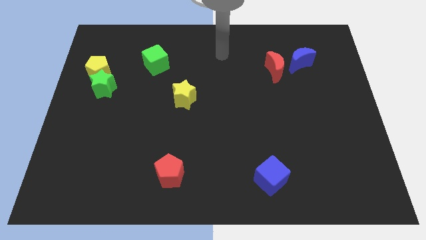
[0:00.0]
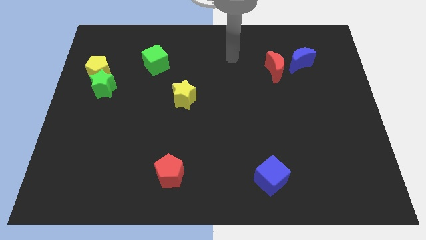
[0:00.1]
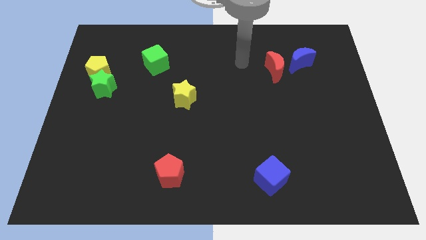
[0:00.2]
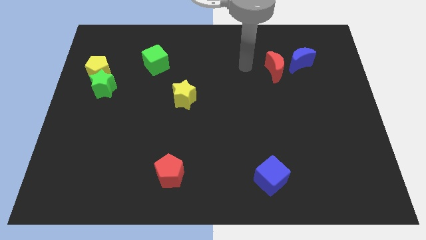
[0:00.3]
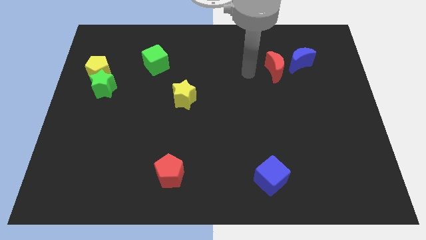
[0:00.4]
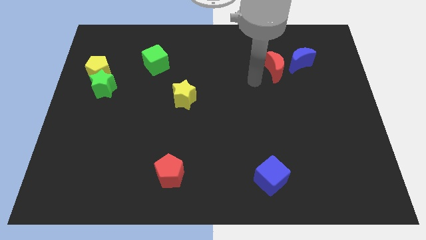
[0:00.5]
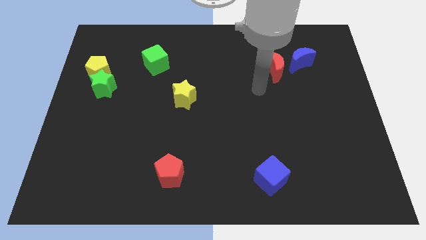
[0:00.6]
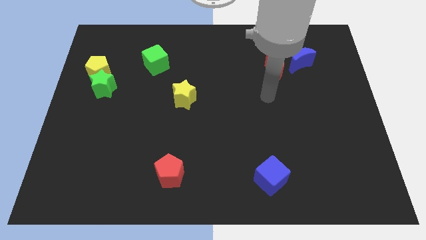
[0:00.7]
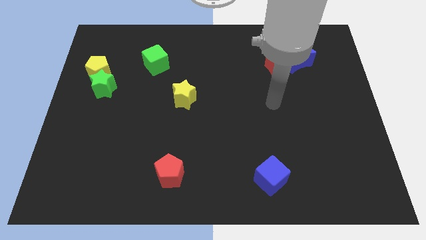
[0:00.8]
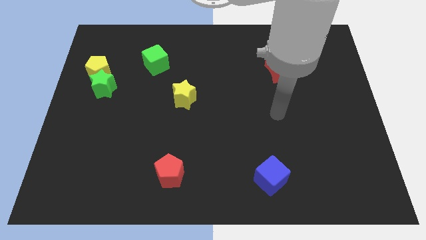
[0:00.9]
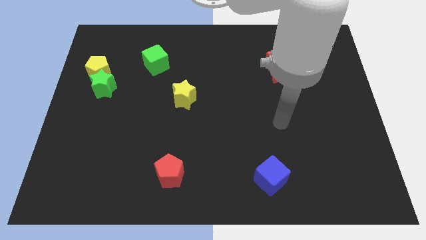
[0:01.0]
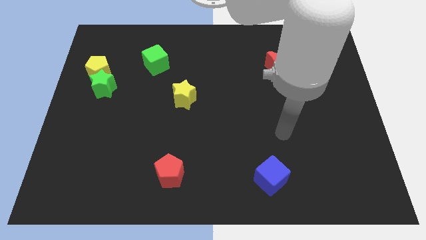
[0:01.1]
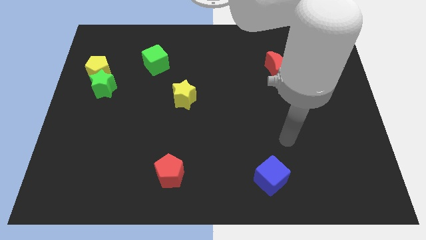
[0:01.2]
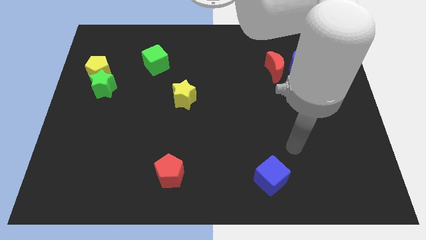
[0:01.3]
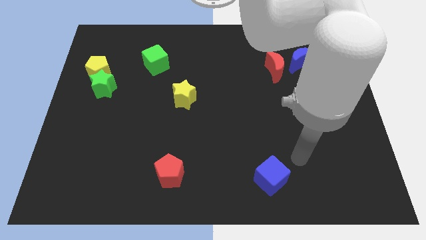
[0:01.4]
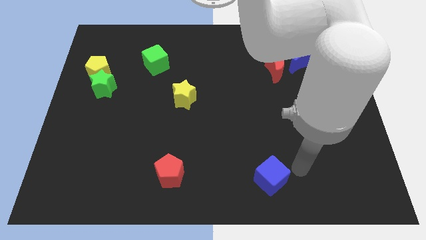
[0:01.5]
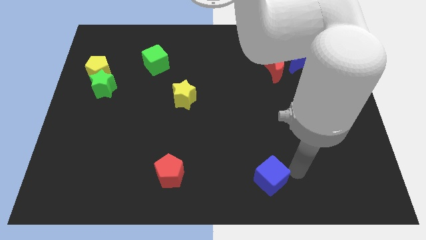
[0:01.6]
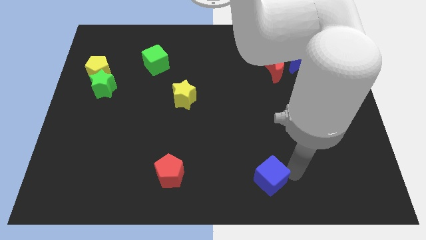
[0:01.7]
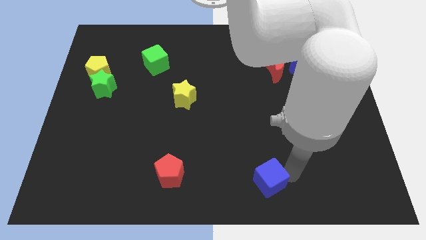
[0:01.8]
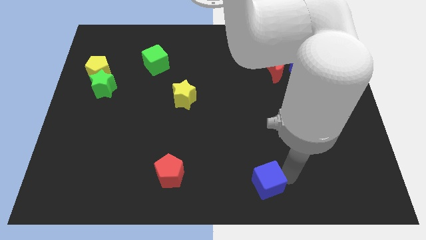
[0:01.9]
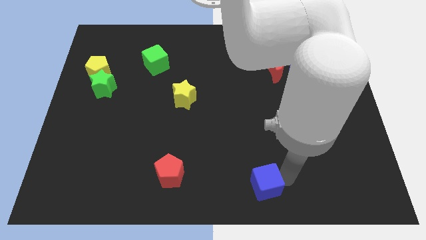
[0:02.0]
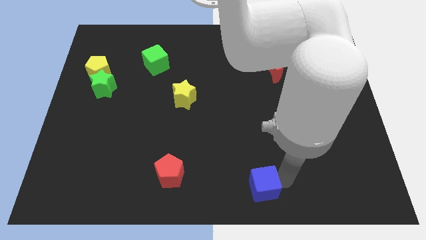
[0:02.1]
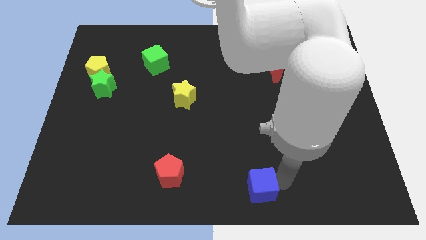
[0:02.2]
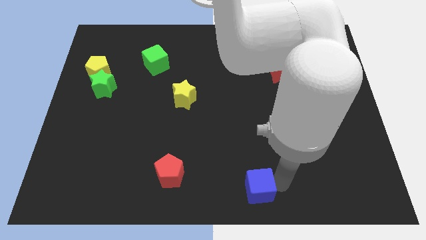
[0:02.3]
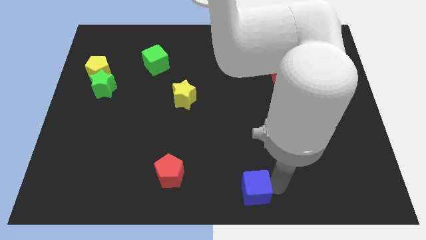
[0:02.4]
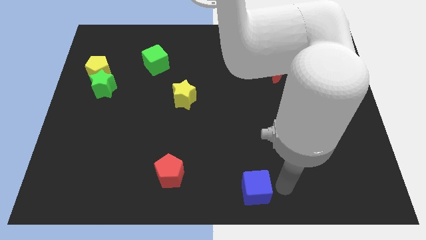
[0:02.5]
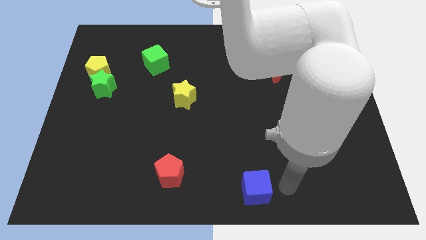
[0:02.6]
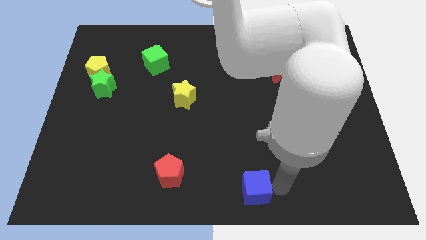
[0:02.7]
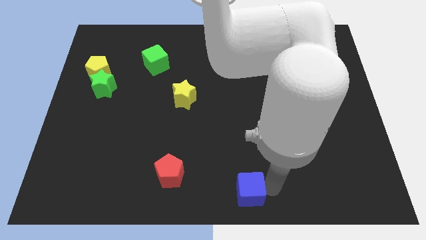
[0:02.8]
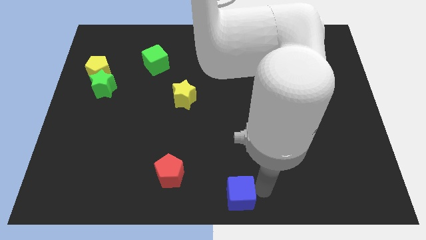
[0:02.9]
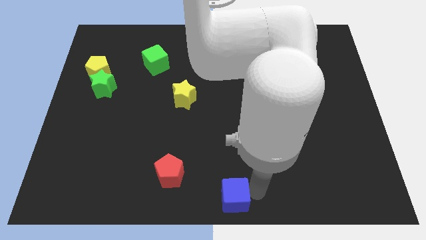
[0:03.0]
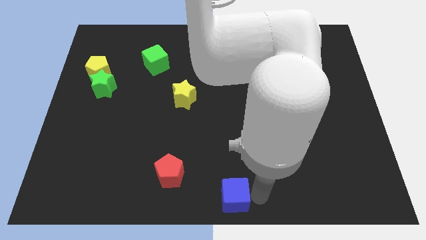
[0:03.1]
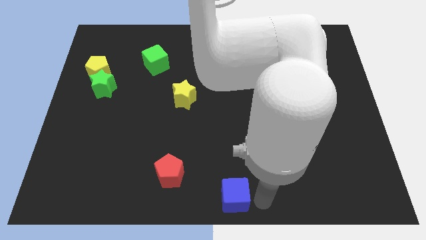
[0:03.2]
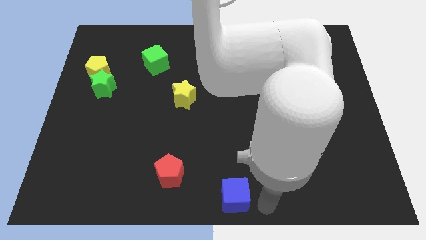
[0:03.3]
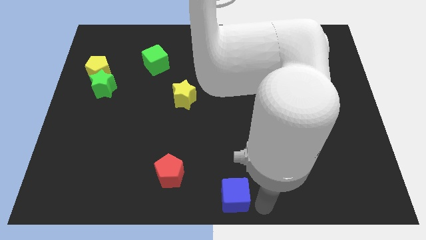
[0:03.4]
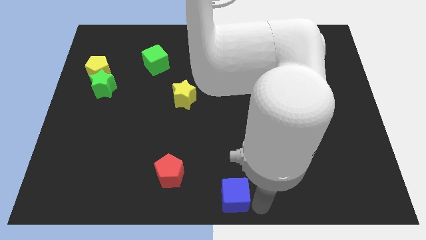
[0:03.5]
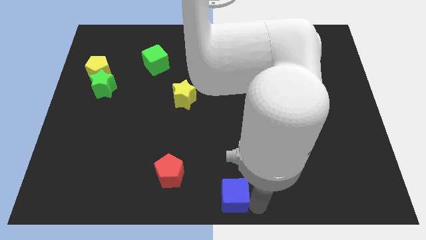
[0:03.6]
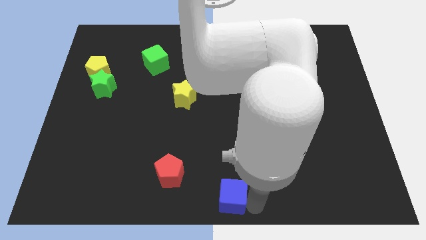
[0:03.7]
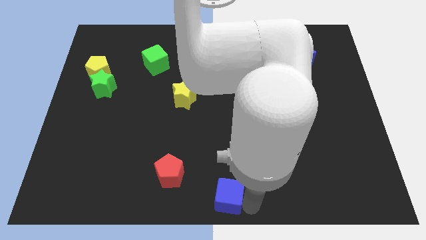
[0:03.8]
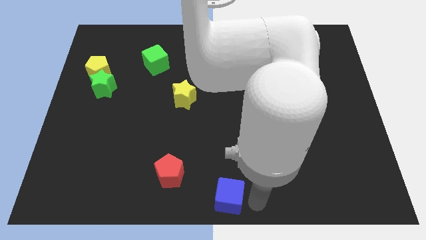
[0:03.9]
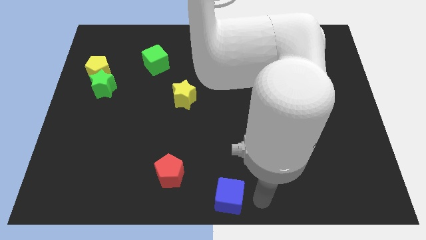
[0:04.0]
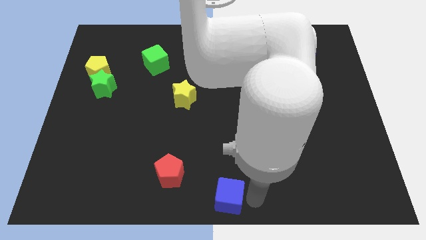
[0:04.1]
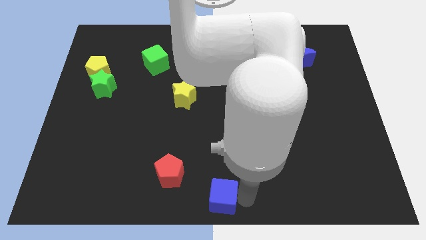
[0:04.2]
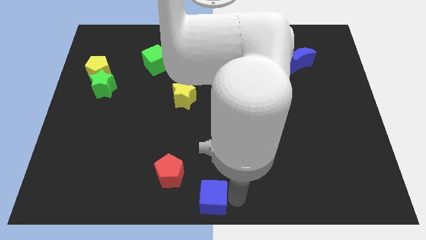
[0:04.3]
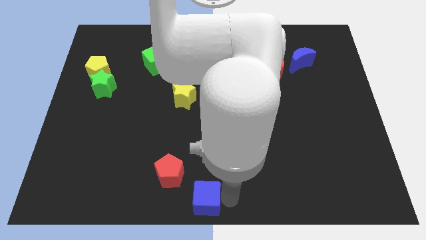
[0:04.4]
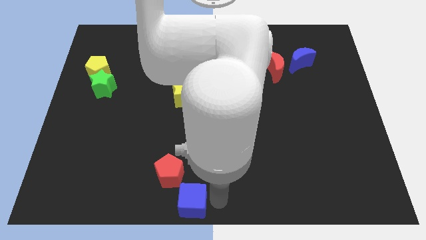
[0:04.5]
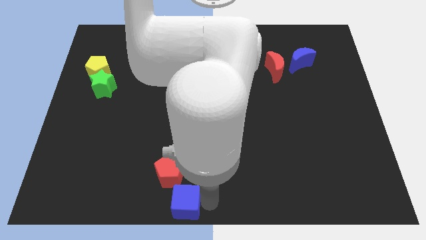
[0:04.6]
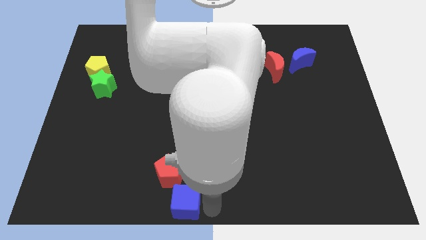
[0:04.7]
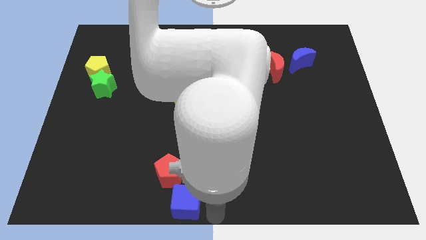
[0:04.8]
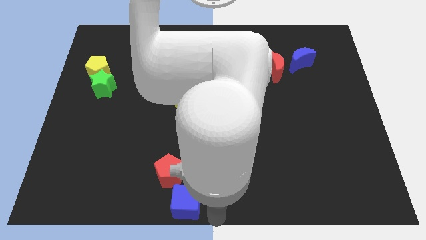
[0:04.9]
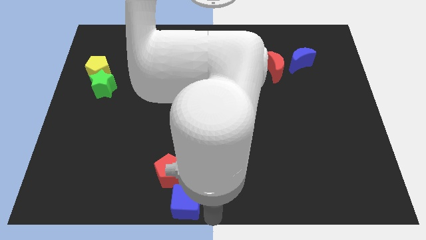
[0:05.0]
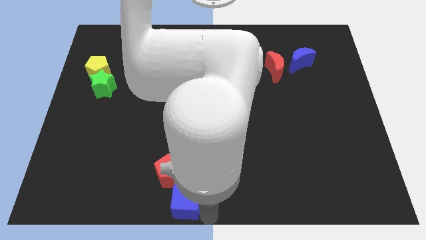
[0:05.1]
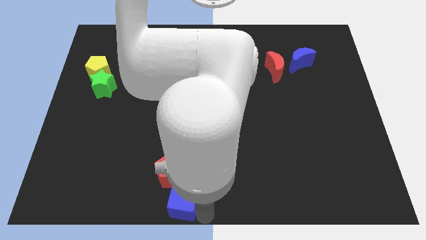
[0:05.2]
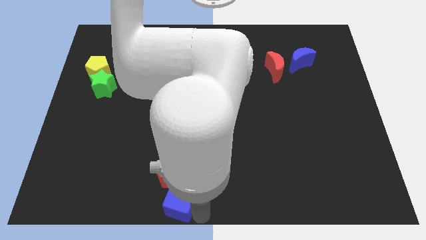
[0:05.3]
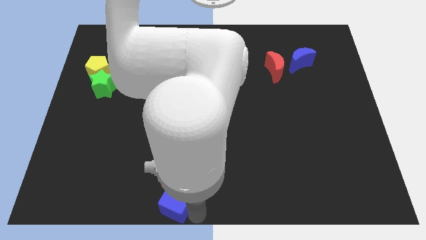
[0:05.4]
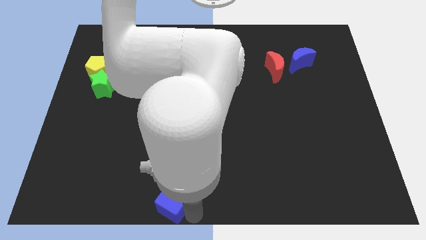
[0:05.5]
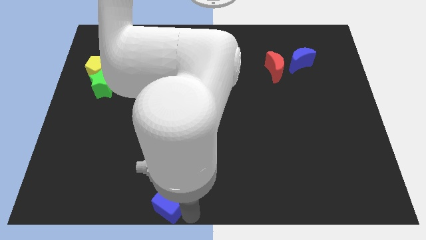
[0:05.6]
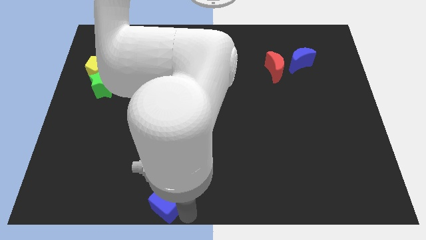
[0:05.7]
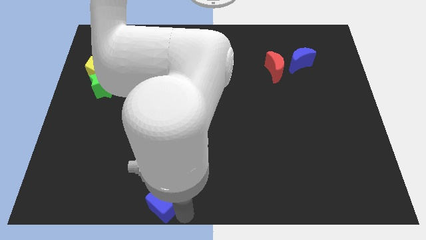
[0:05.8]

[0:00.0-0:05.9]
slide the blue cube left

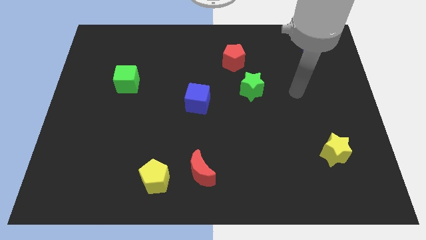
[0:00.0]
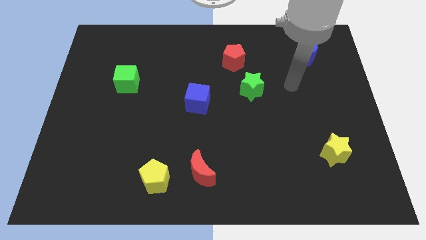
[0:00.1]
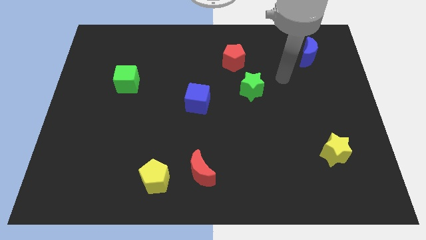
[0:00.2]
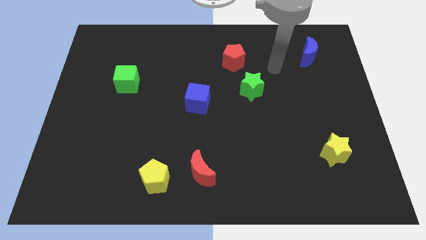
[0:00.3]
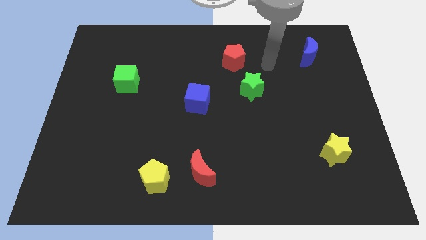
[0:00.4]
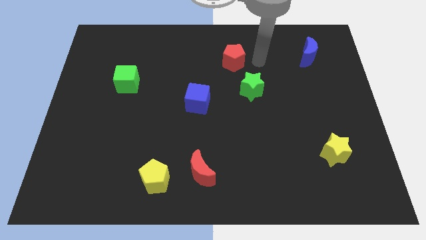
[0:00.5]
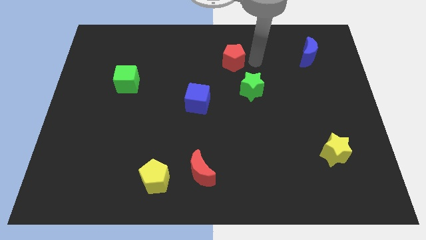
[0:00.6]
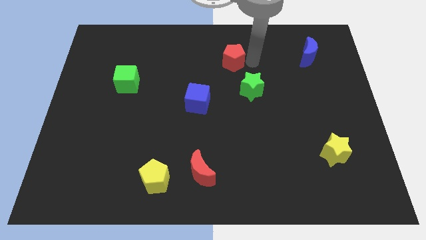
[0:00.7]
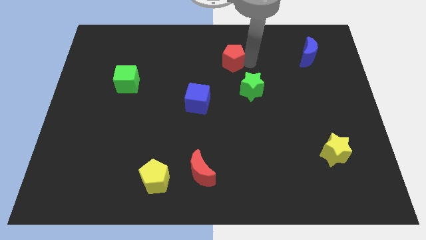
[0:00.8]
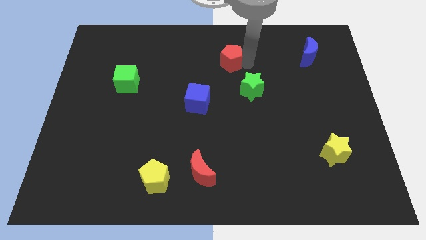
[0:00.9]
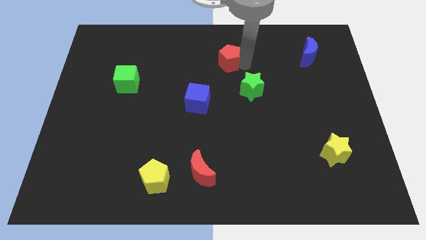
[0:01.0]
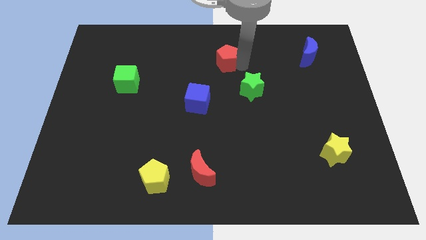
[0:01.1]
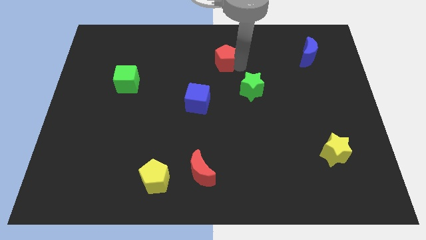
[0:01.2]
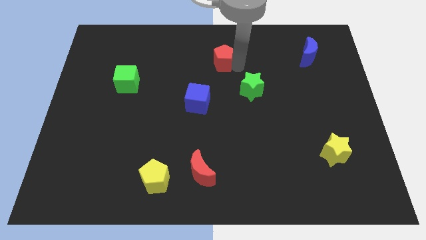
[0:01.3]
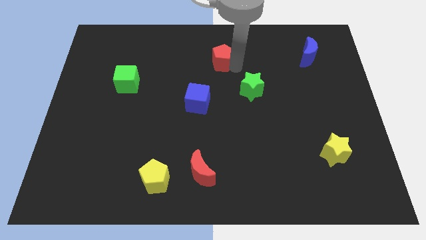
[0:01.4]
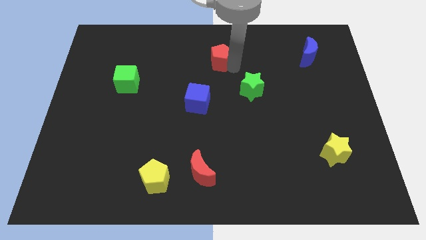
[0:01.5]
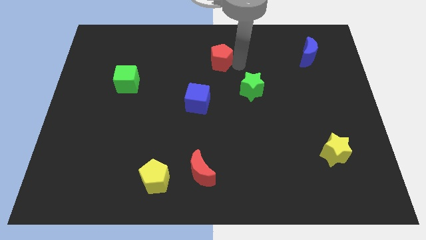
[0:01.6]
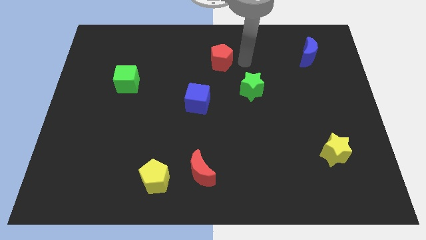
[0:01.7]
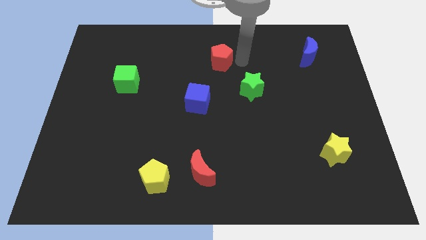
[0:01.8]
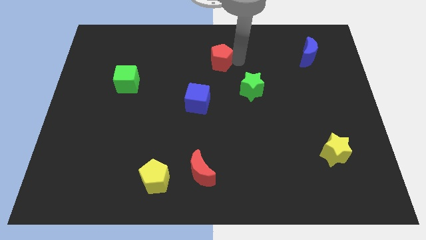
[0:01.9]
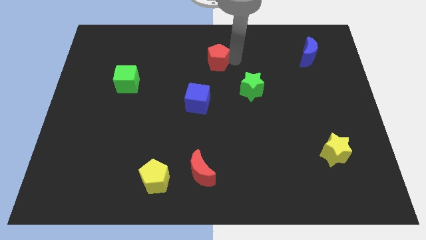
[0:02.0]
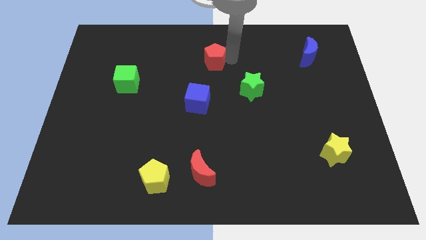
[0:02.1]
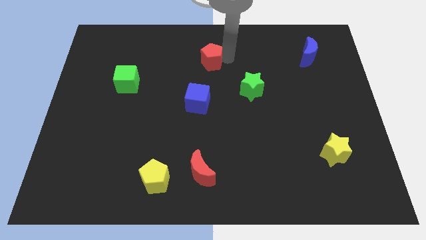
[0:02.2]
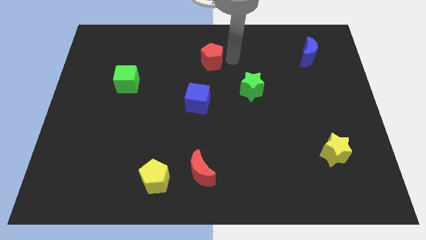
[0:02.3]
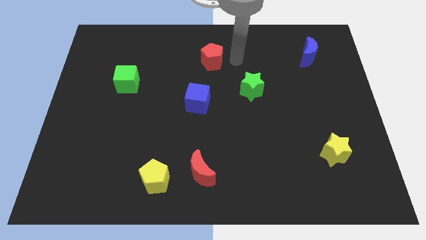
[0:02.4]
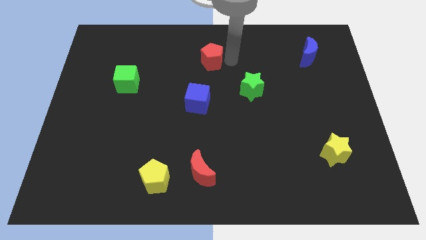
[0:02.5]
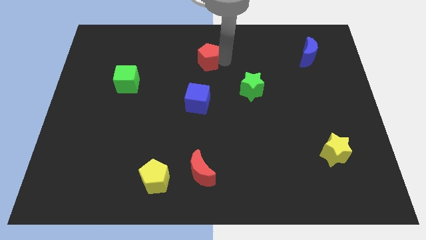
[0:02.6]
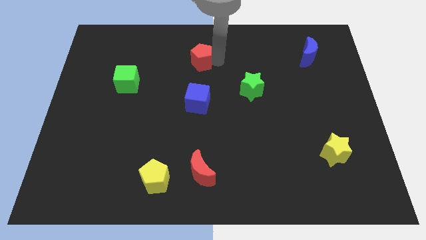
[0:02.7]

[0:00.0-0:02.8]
slightly push the red pentagon left
